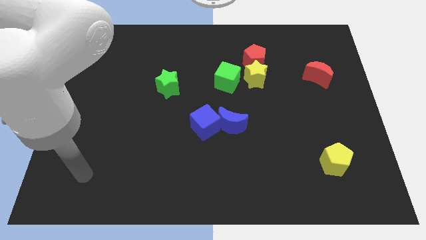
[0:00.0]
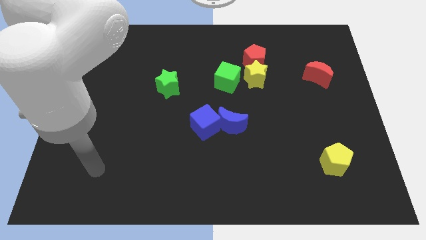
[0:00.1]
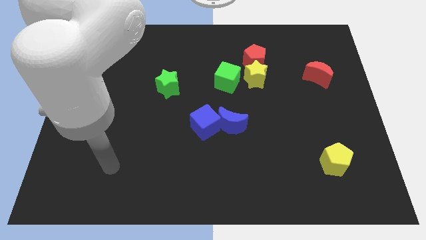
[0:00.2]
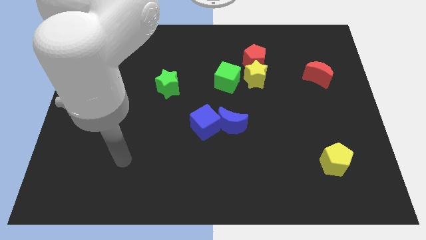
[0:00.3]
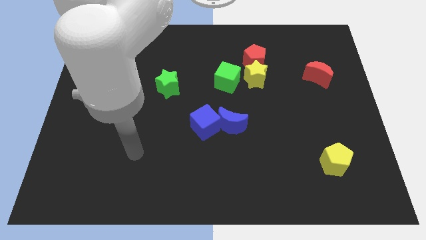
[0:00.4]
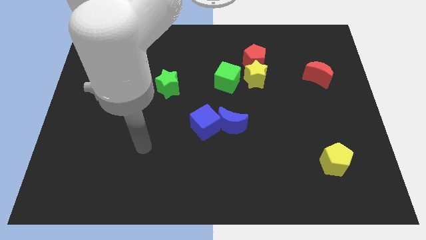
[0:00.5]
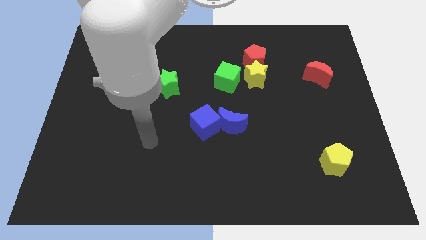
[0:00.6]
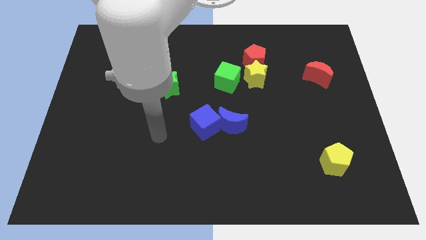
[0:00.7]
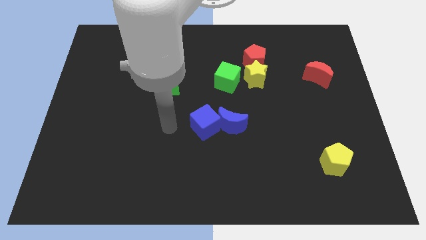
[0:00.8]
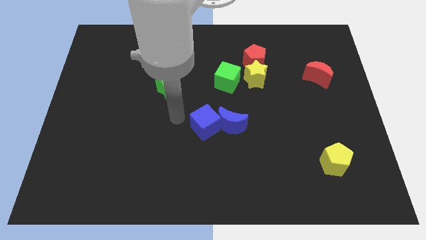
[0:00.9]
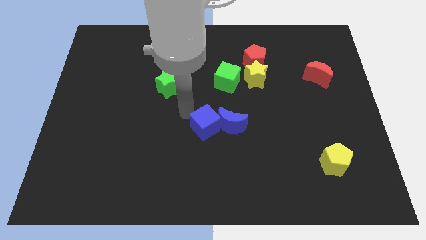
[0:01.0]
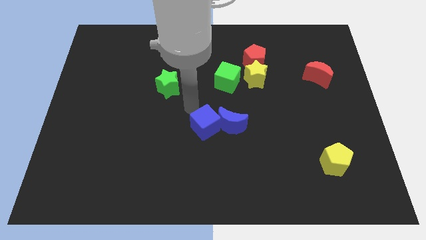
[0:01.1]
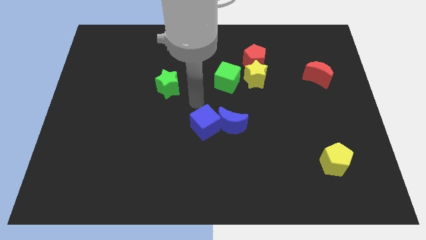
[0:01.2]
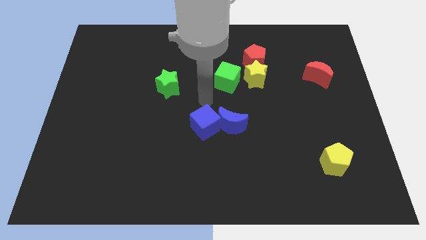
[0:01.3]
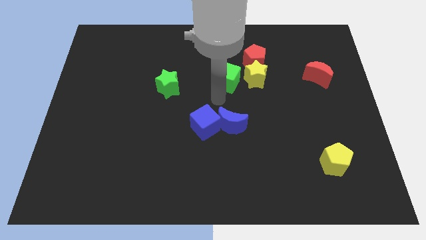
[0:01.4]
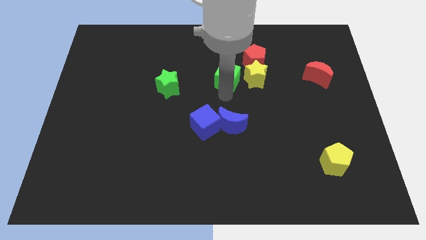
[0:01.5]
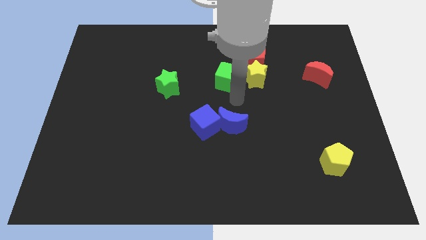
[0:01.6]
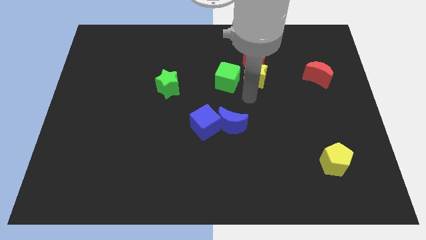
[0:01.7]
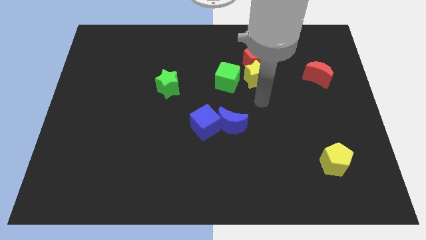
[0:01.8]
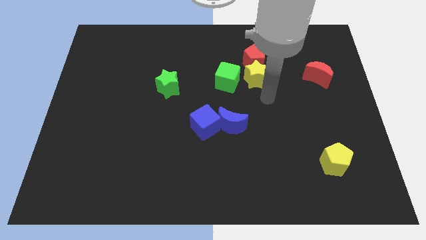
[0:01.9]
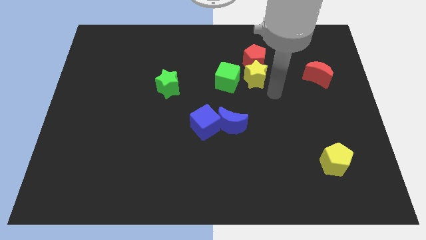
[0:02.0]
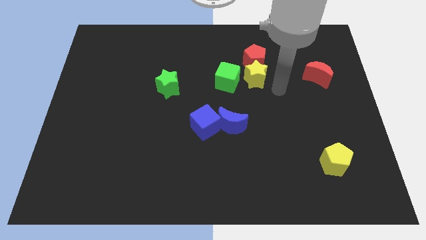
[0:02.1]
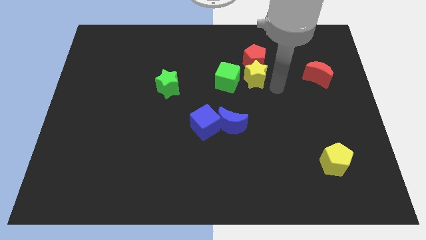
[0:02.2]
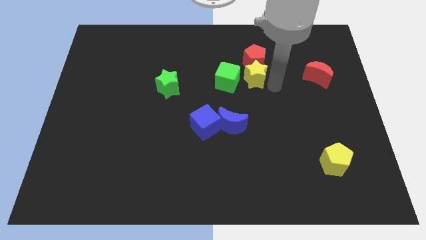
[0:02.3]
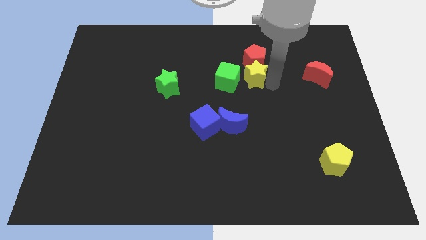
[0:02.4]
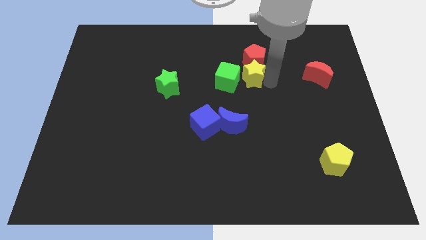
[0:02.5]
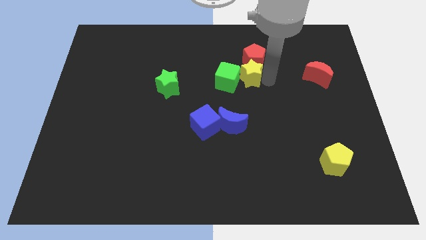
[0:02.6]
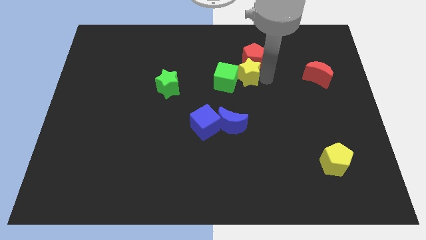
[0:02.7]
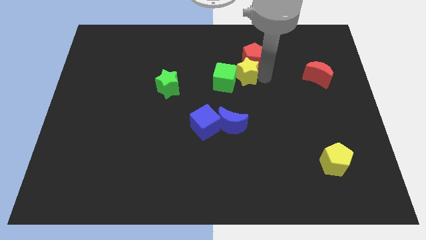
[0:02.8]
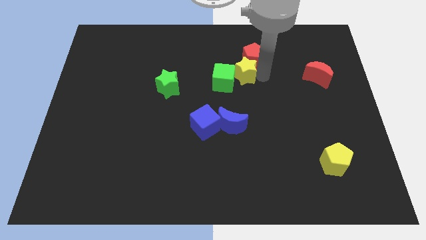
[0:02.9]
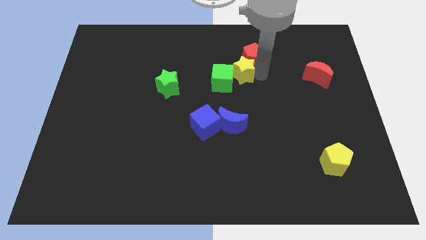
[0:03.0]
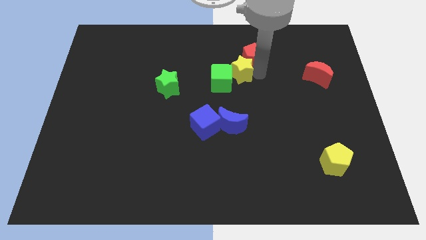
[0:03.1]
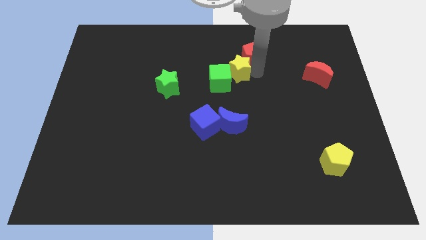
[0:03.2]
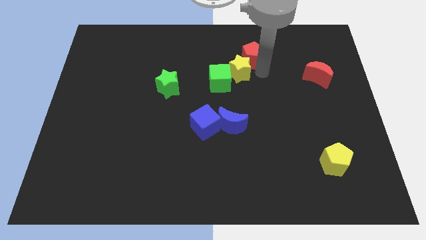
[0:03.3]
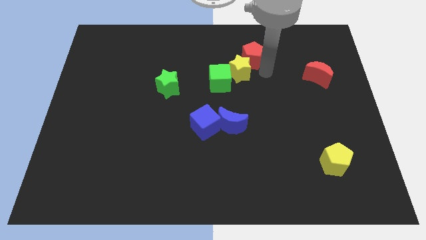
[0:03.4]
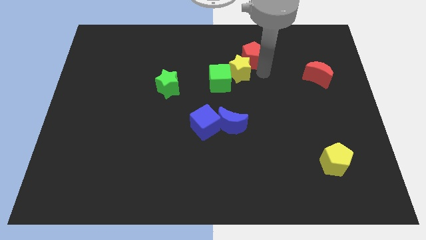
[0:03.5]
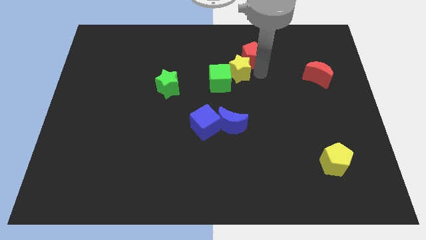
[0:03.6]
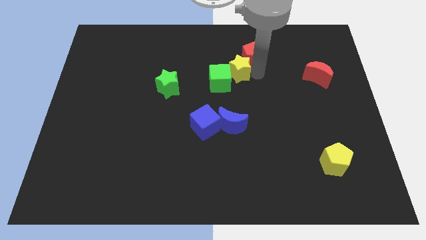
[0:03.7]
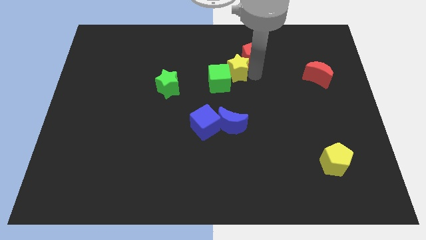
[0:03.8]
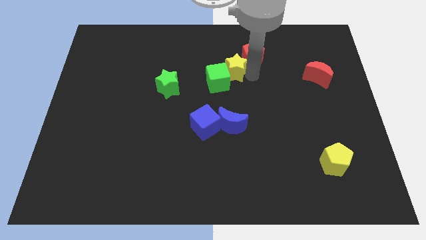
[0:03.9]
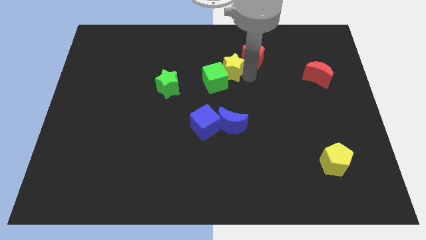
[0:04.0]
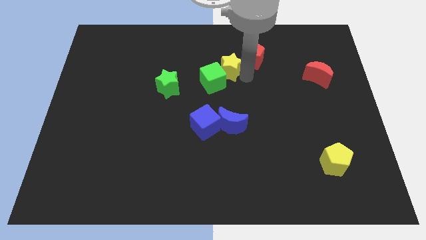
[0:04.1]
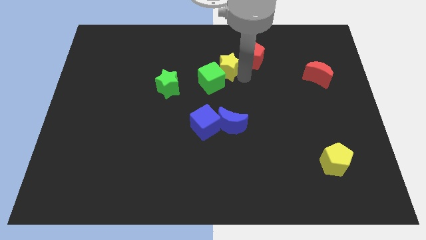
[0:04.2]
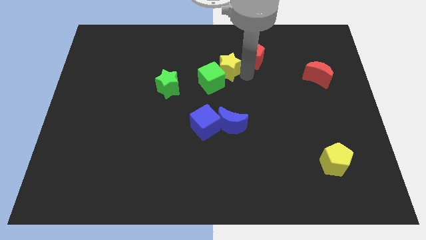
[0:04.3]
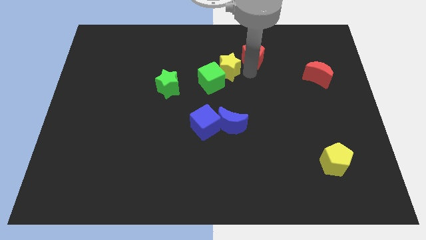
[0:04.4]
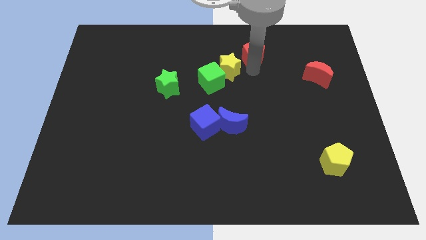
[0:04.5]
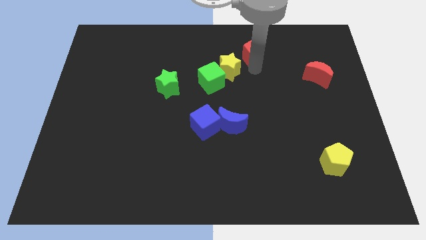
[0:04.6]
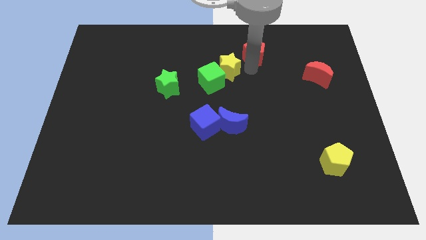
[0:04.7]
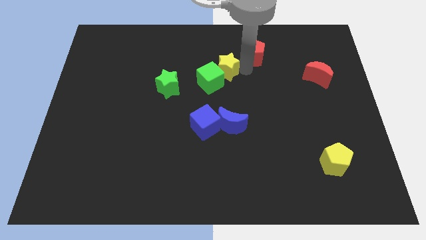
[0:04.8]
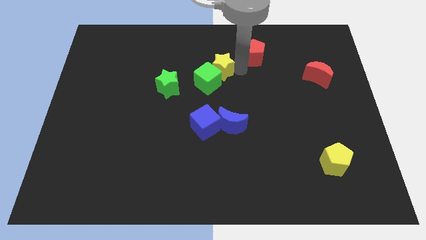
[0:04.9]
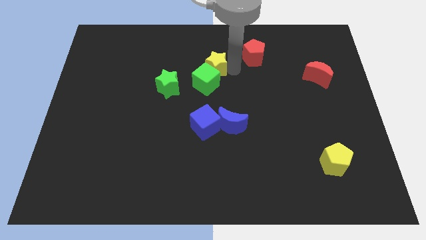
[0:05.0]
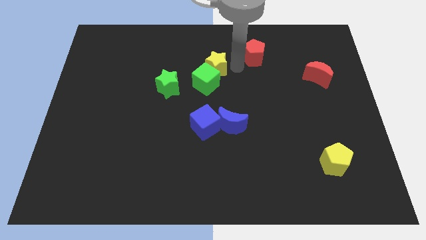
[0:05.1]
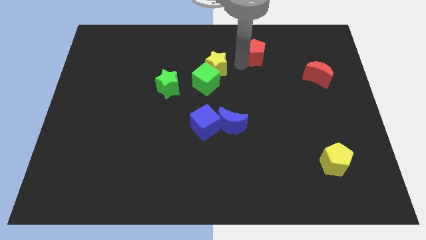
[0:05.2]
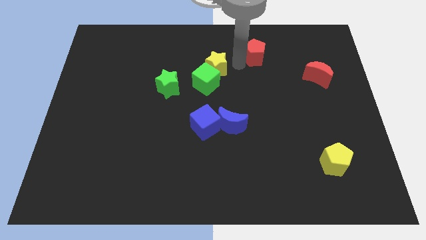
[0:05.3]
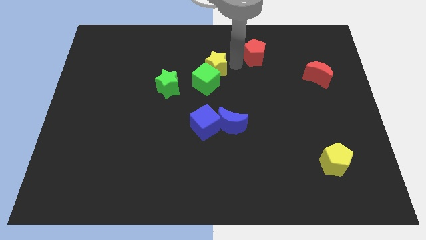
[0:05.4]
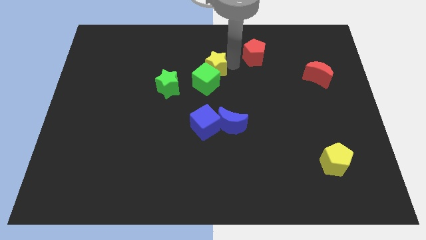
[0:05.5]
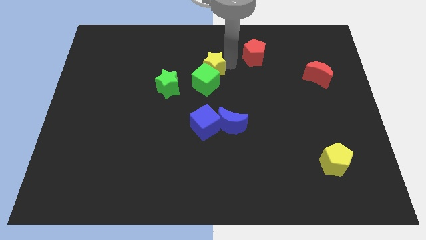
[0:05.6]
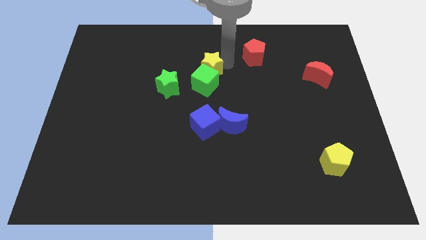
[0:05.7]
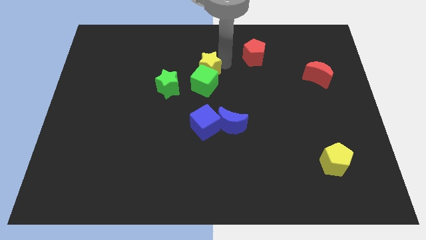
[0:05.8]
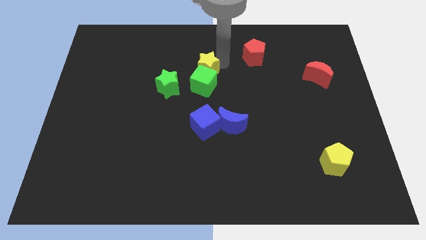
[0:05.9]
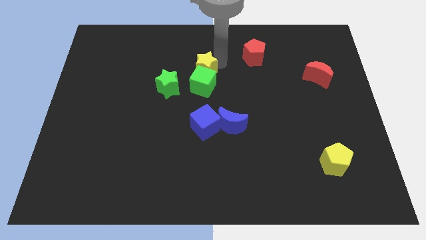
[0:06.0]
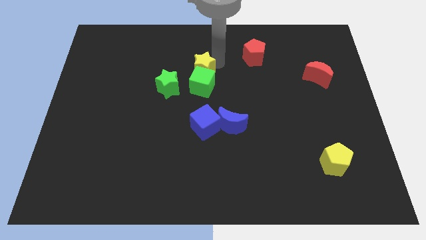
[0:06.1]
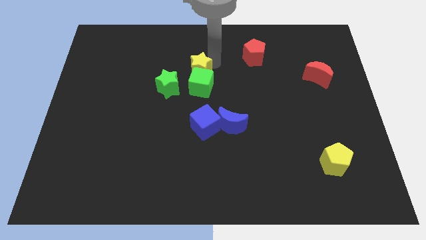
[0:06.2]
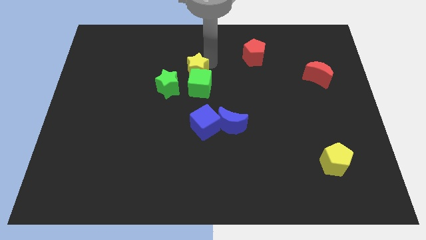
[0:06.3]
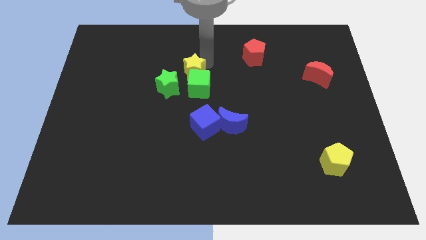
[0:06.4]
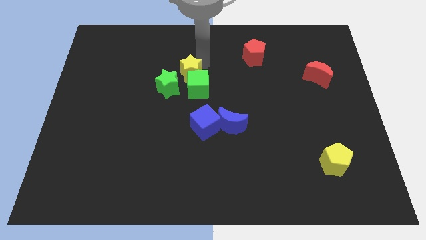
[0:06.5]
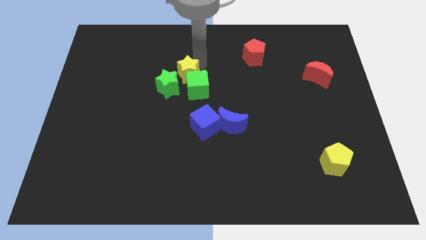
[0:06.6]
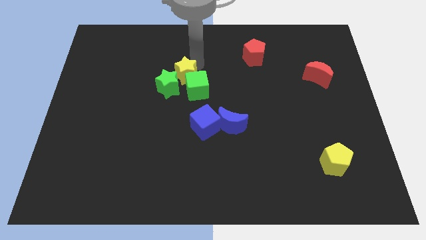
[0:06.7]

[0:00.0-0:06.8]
put the yellow star towards the green star

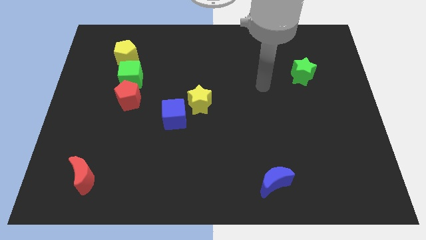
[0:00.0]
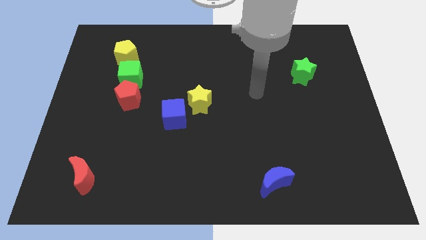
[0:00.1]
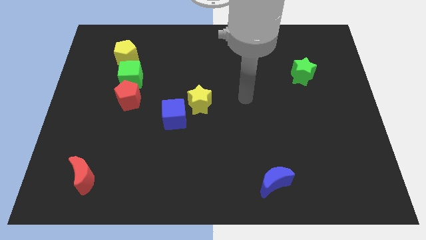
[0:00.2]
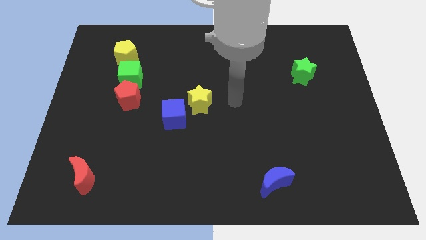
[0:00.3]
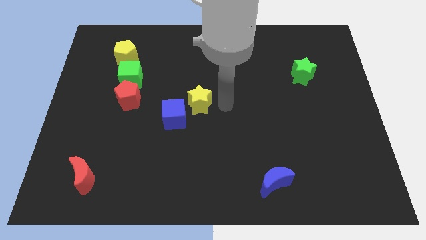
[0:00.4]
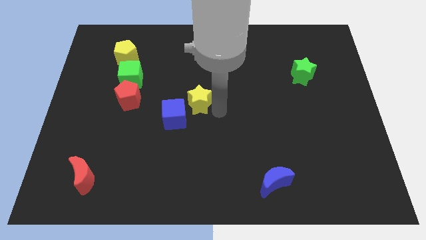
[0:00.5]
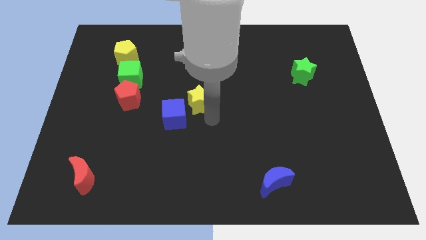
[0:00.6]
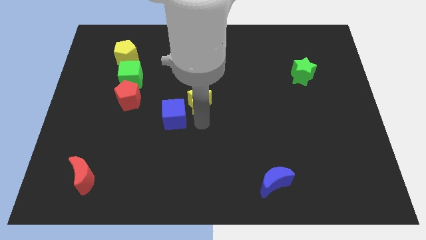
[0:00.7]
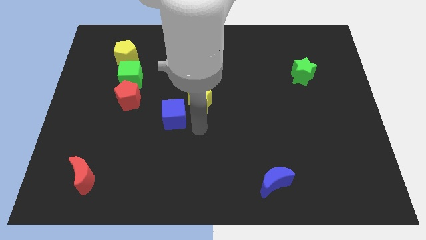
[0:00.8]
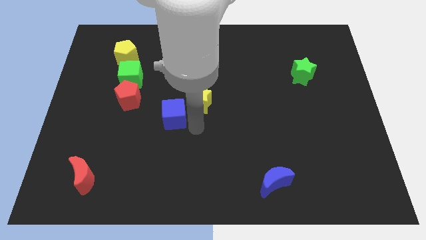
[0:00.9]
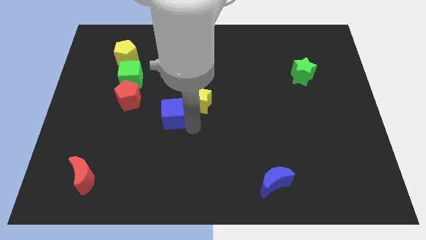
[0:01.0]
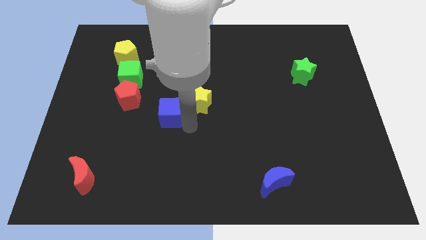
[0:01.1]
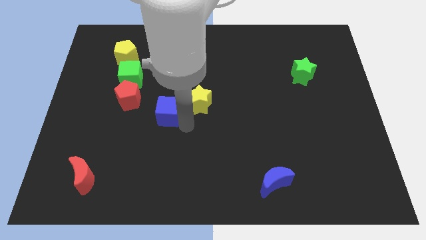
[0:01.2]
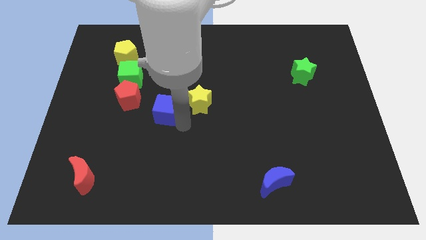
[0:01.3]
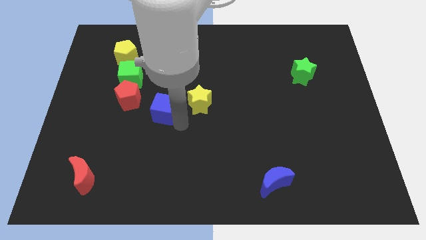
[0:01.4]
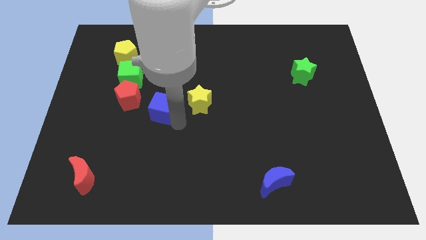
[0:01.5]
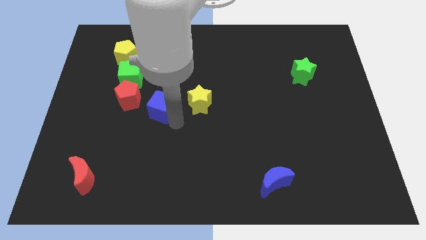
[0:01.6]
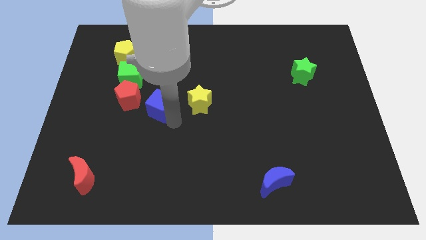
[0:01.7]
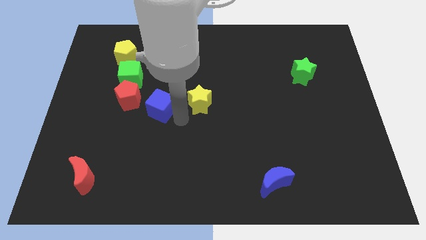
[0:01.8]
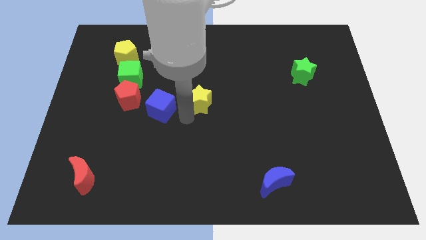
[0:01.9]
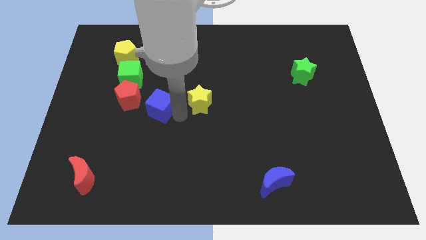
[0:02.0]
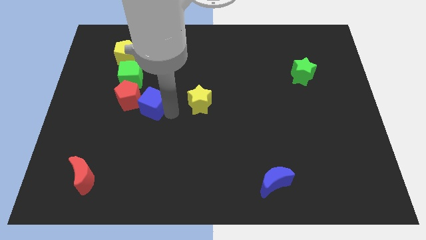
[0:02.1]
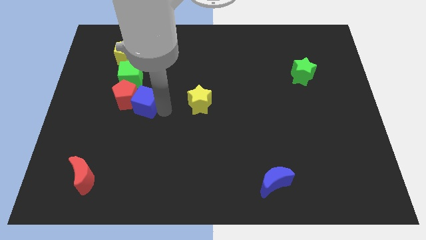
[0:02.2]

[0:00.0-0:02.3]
move the blue cube close to the red pentagon
